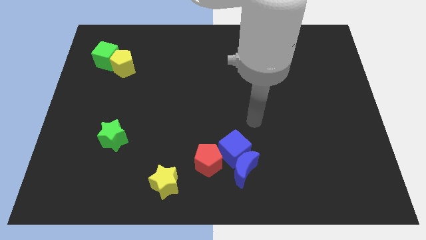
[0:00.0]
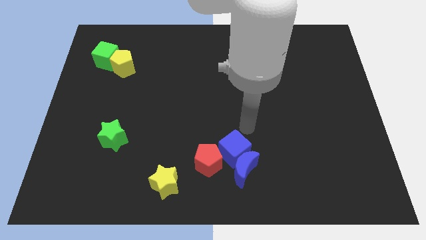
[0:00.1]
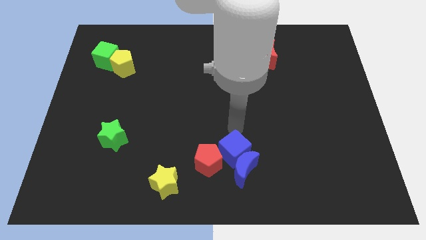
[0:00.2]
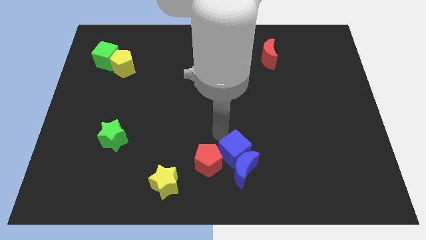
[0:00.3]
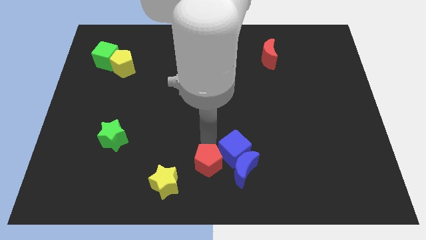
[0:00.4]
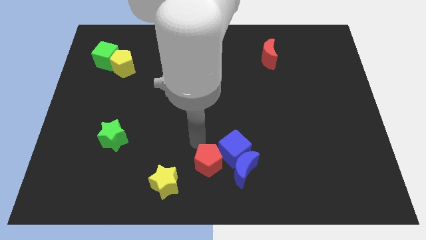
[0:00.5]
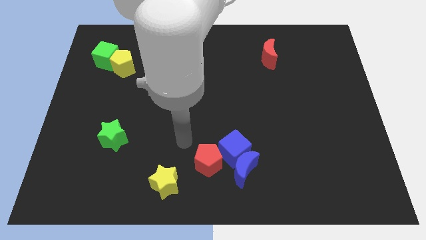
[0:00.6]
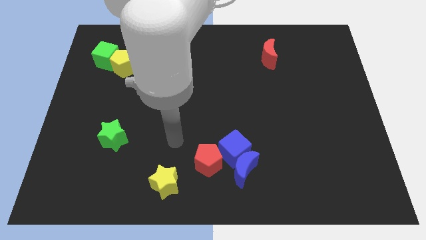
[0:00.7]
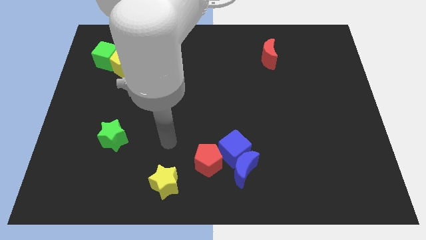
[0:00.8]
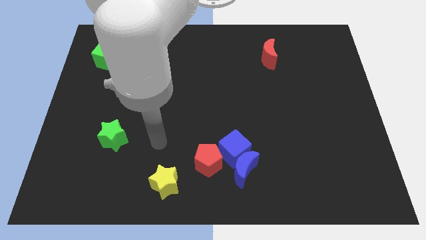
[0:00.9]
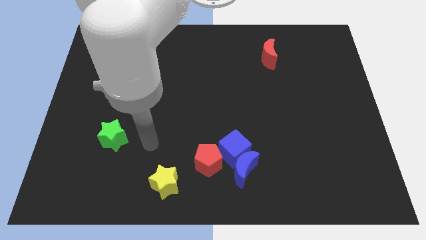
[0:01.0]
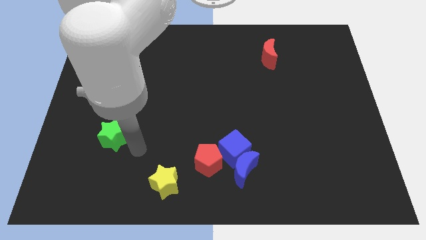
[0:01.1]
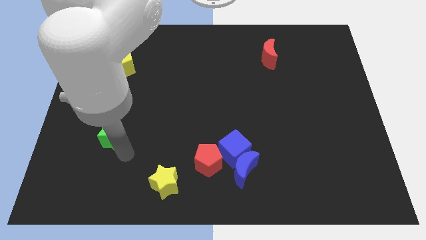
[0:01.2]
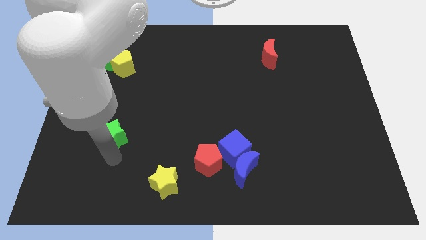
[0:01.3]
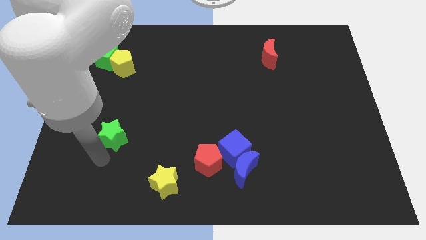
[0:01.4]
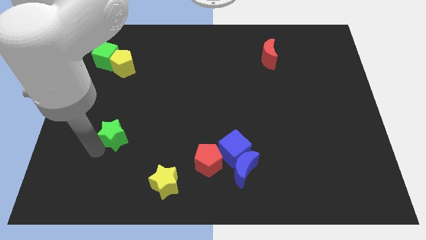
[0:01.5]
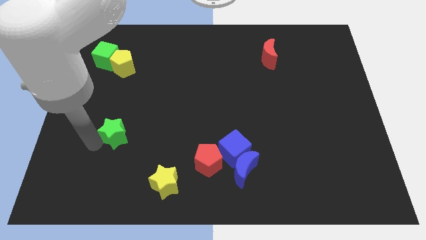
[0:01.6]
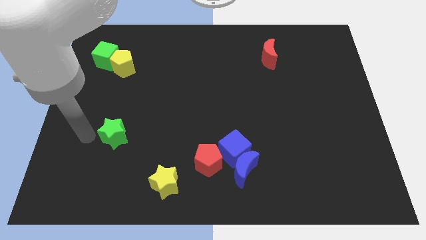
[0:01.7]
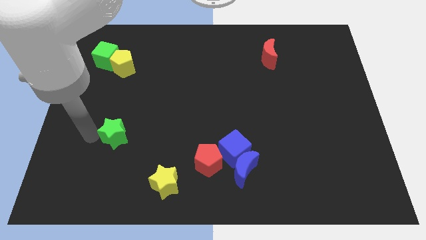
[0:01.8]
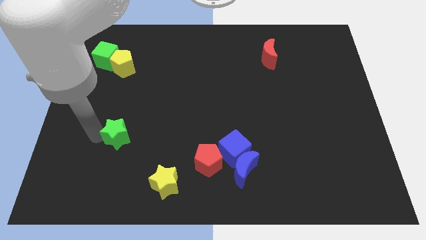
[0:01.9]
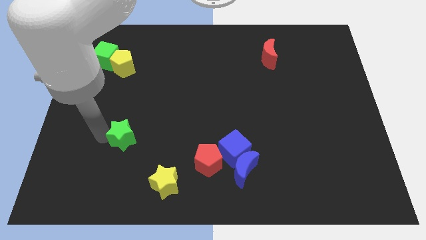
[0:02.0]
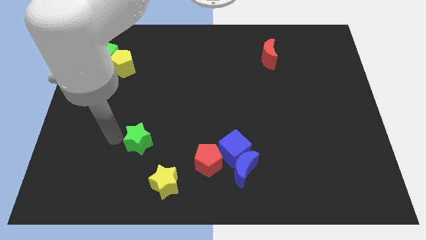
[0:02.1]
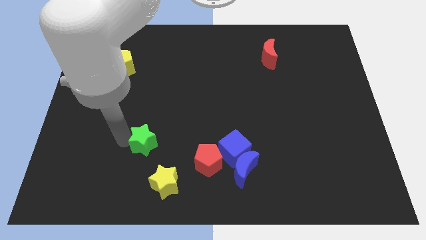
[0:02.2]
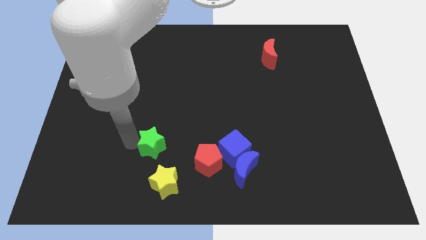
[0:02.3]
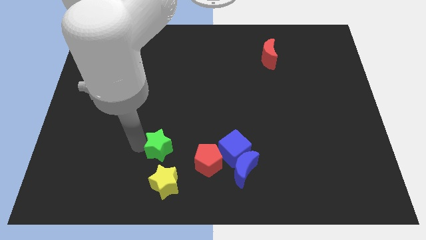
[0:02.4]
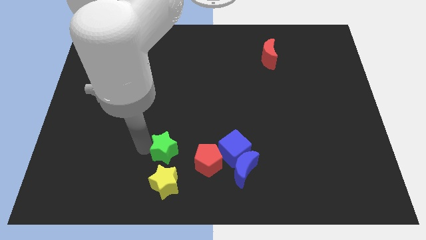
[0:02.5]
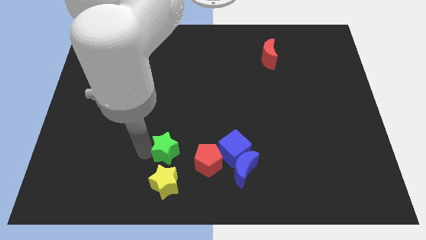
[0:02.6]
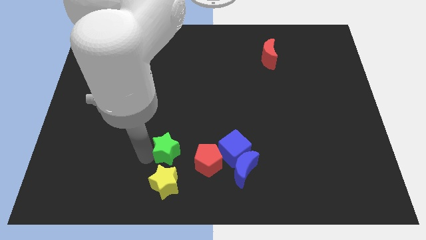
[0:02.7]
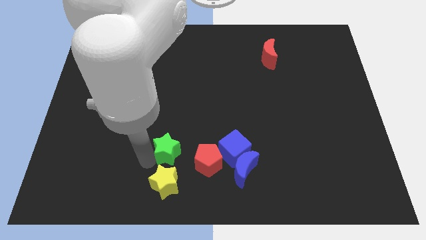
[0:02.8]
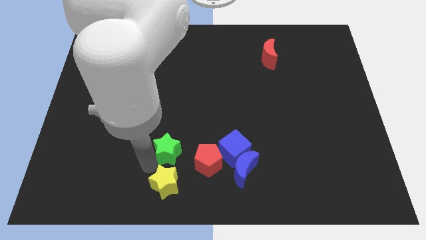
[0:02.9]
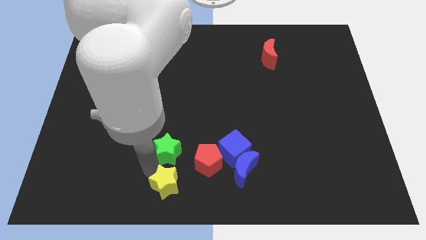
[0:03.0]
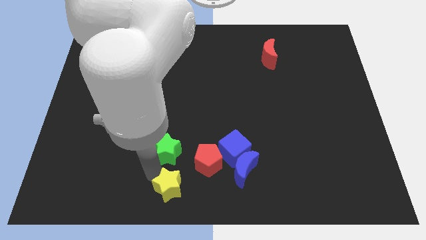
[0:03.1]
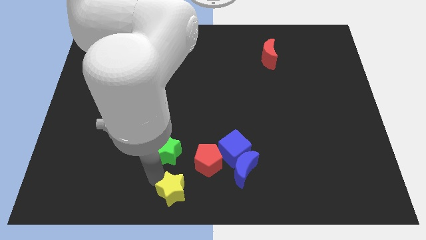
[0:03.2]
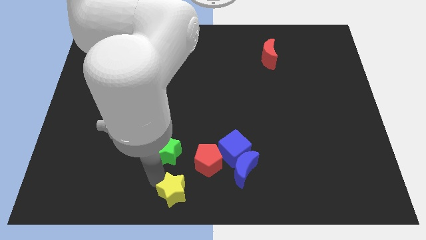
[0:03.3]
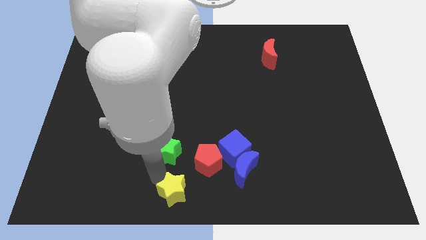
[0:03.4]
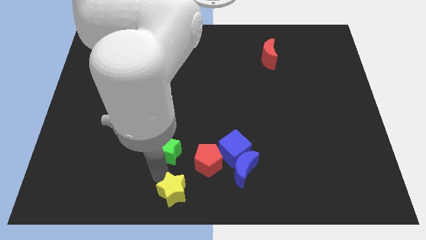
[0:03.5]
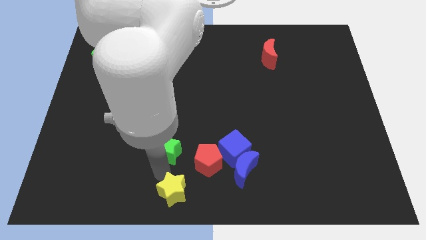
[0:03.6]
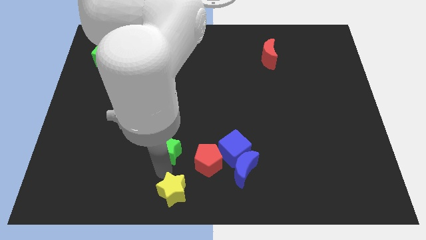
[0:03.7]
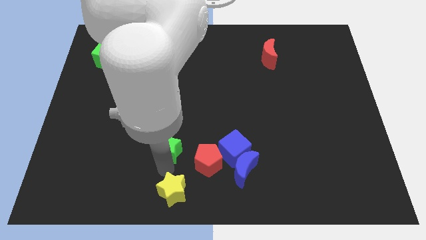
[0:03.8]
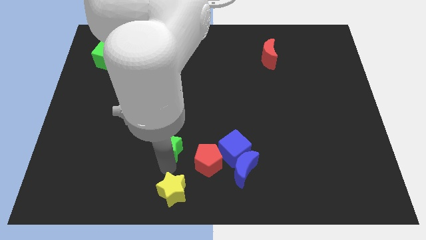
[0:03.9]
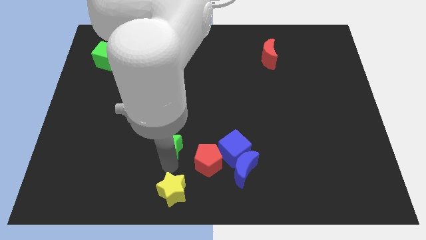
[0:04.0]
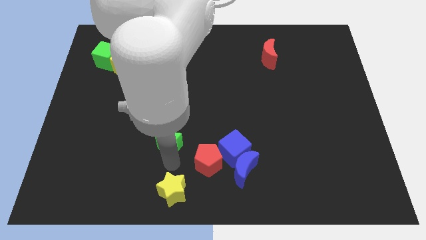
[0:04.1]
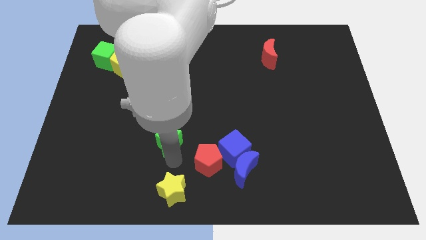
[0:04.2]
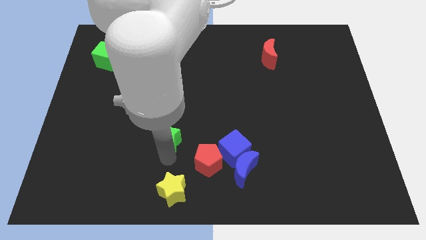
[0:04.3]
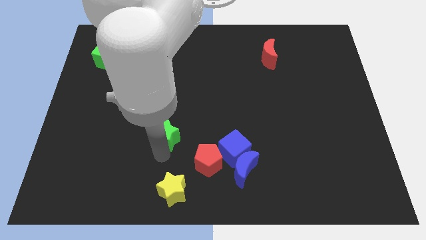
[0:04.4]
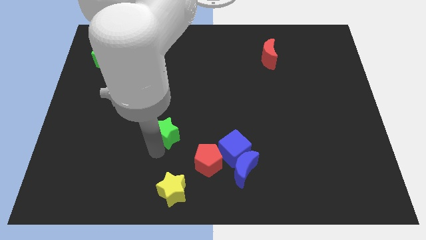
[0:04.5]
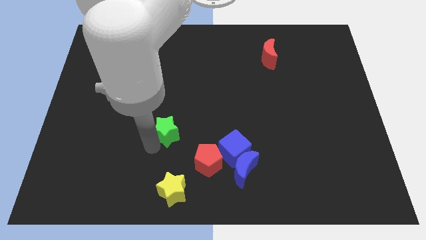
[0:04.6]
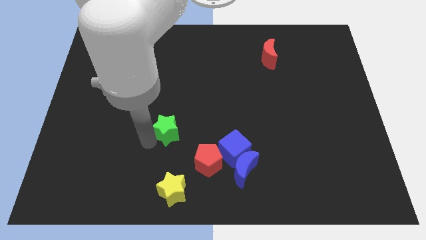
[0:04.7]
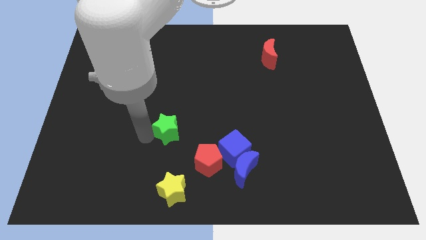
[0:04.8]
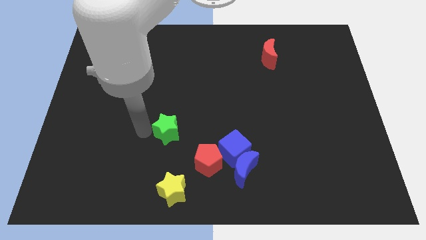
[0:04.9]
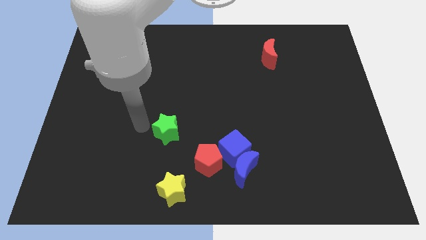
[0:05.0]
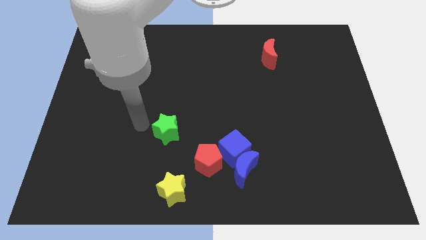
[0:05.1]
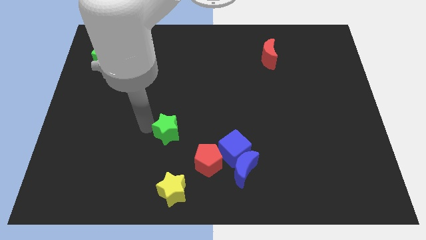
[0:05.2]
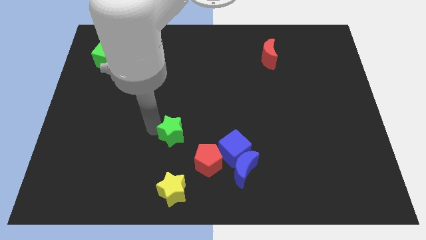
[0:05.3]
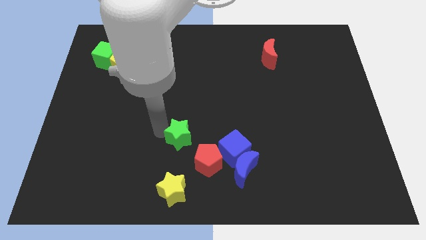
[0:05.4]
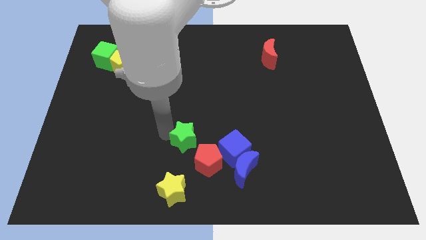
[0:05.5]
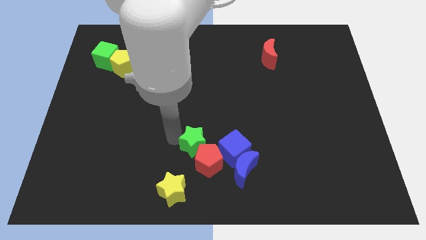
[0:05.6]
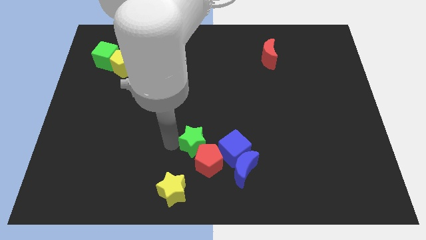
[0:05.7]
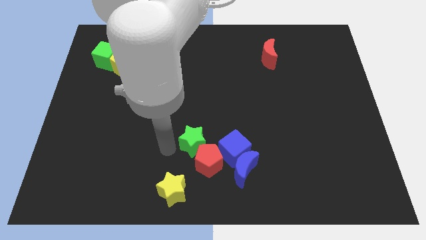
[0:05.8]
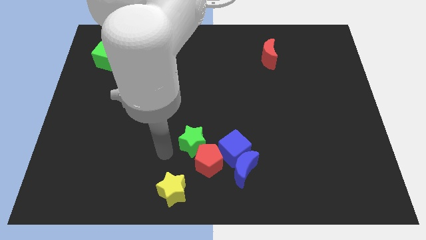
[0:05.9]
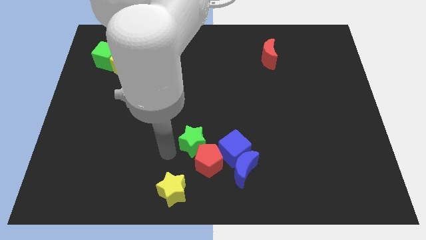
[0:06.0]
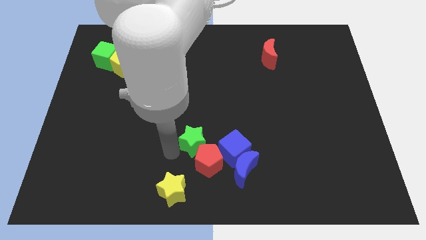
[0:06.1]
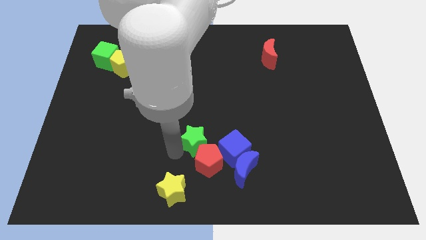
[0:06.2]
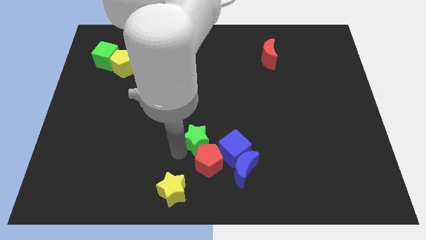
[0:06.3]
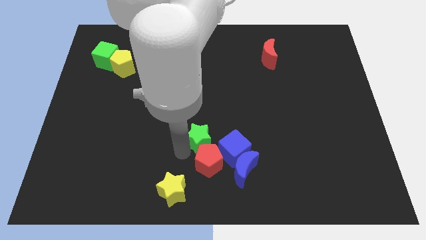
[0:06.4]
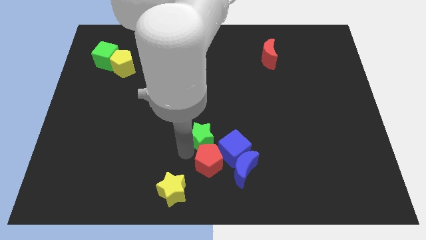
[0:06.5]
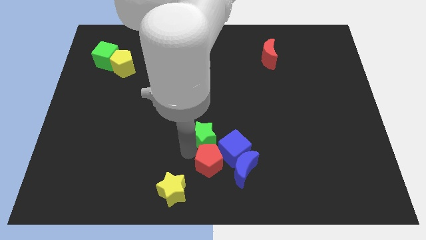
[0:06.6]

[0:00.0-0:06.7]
slide the green star right

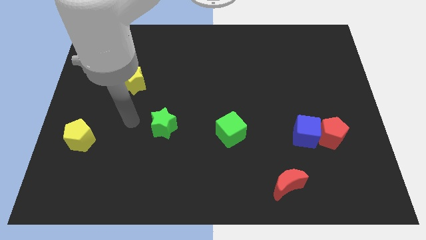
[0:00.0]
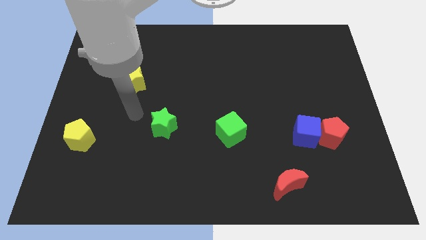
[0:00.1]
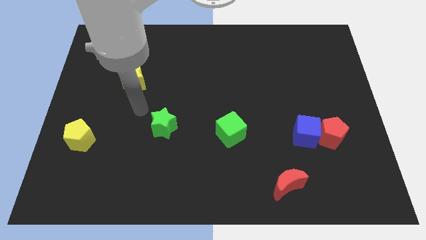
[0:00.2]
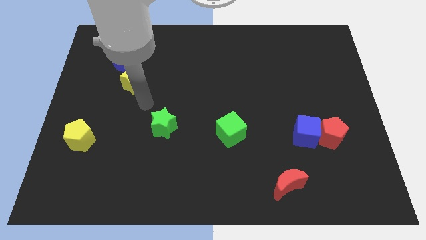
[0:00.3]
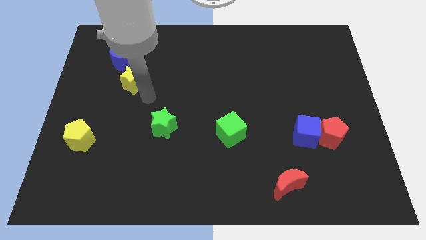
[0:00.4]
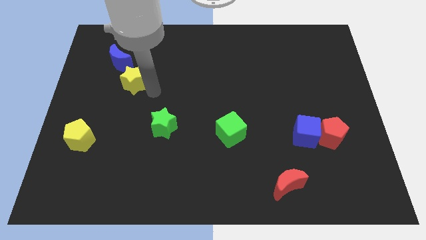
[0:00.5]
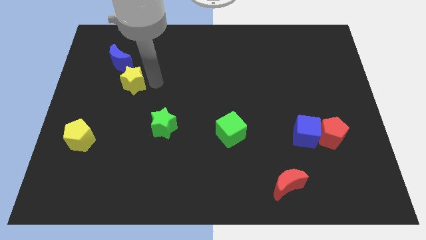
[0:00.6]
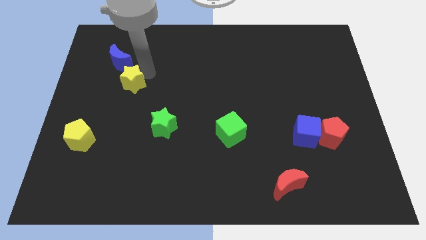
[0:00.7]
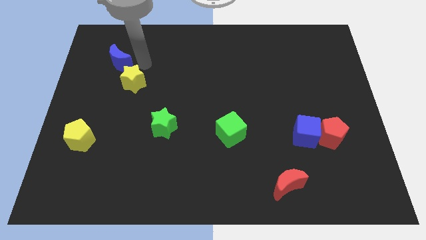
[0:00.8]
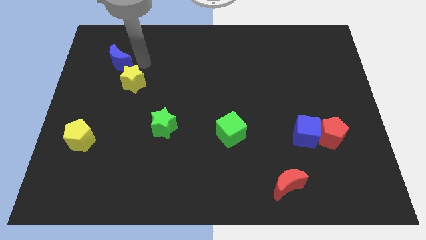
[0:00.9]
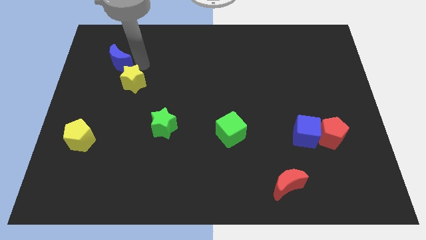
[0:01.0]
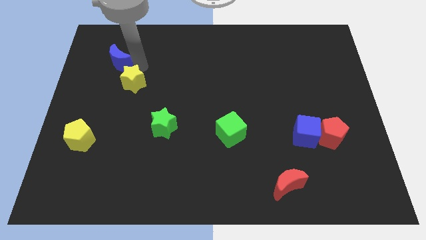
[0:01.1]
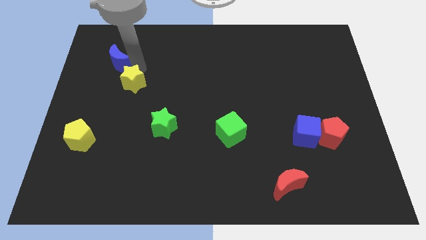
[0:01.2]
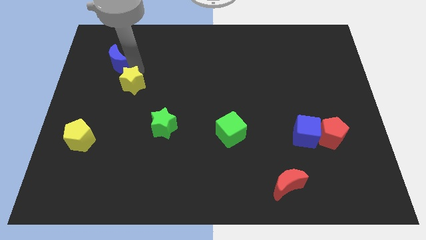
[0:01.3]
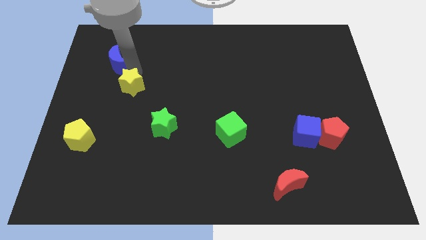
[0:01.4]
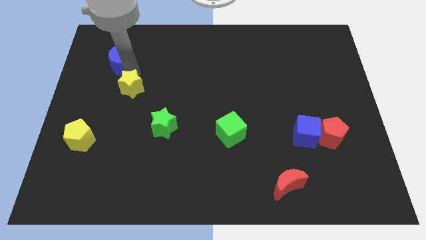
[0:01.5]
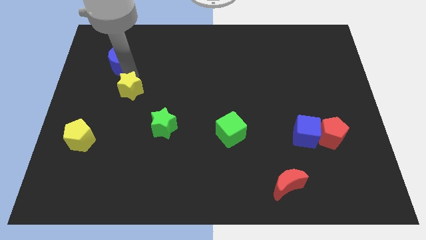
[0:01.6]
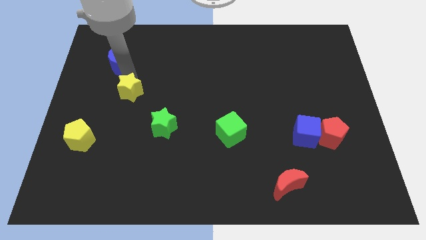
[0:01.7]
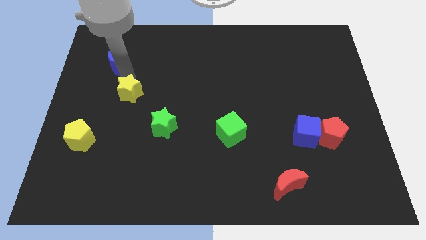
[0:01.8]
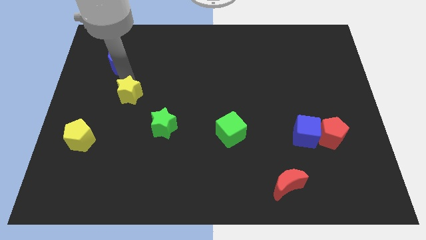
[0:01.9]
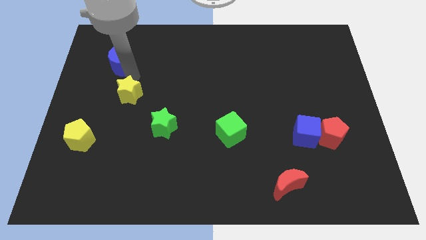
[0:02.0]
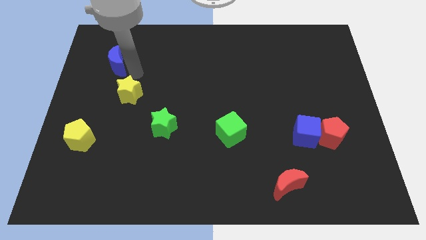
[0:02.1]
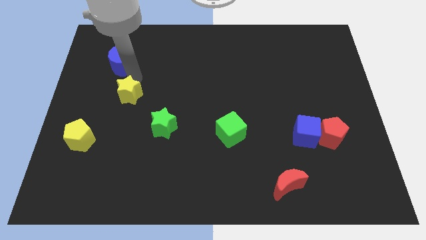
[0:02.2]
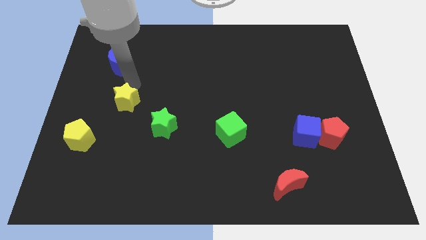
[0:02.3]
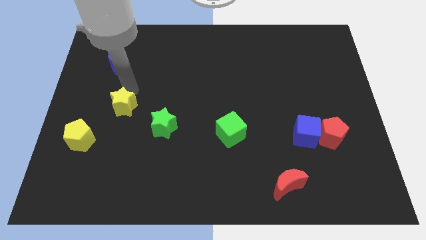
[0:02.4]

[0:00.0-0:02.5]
move the yellow star downwards a little
